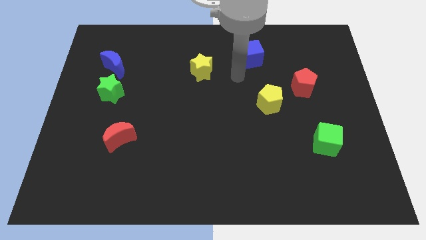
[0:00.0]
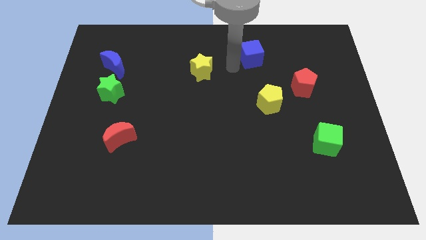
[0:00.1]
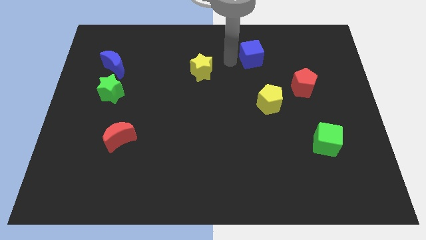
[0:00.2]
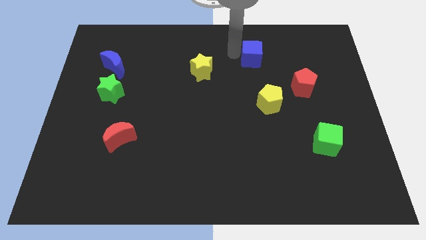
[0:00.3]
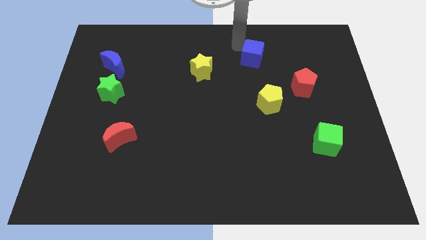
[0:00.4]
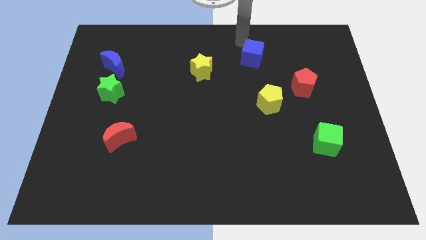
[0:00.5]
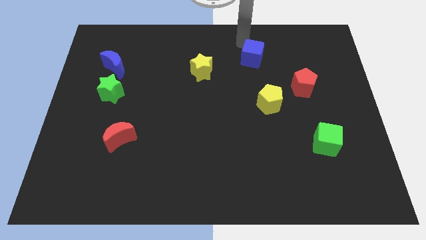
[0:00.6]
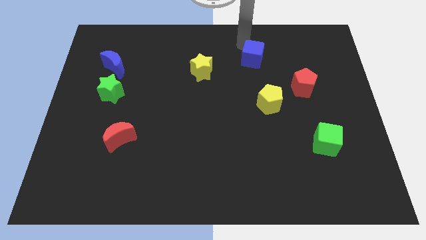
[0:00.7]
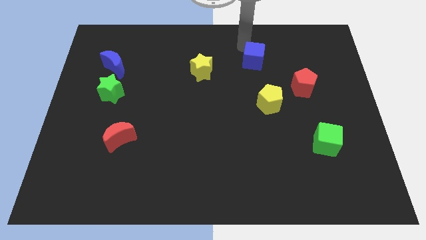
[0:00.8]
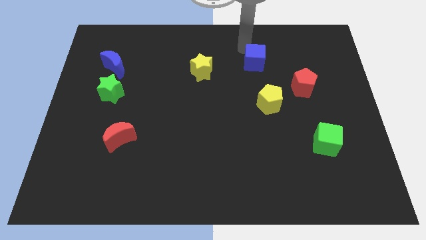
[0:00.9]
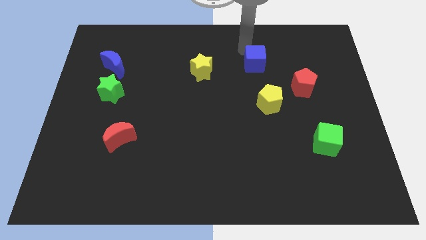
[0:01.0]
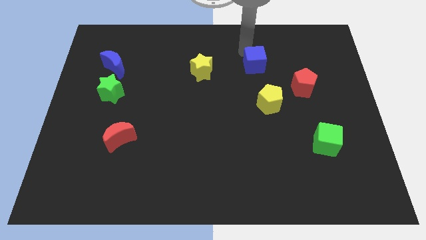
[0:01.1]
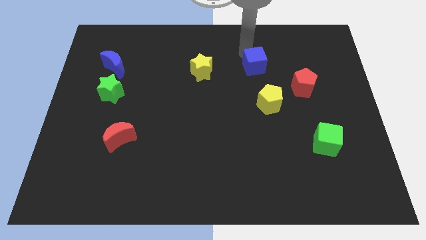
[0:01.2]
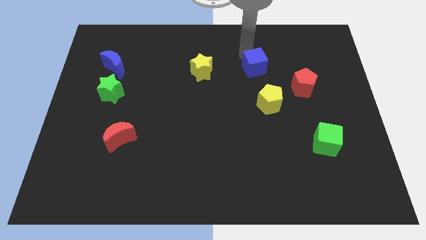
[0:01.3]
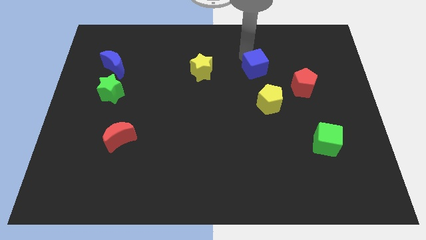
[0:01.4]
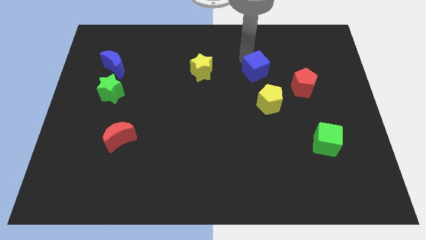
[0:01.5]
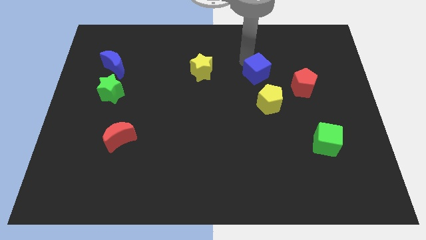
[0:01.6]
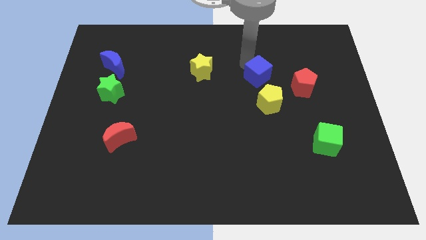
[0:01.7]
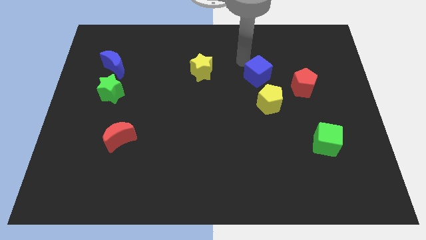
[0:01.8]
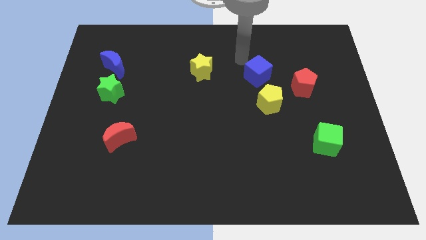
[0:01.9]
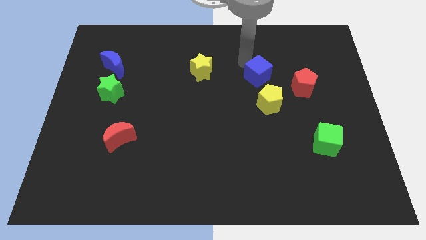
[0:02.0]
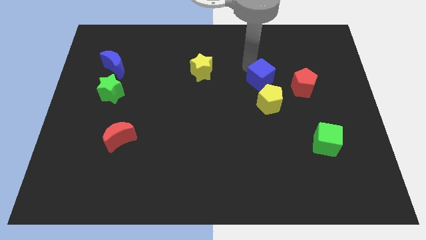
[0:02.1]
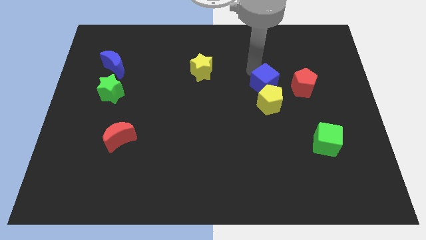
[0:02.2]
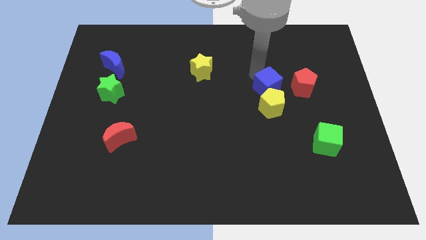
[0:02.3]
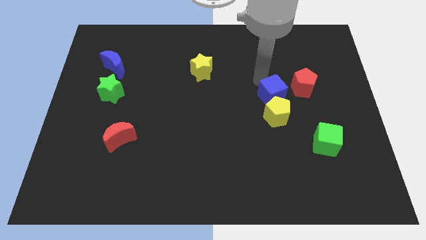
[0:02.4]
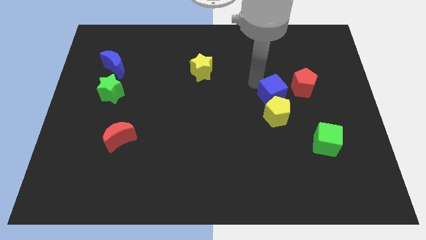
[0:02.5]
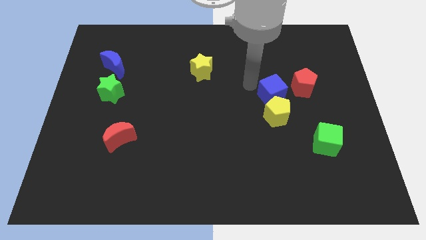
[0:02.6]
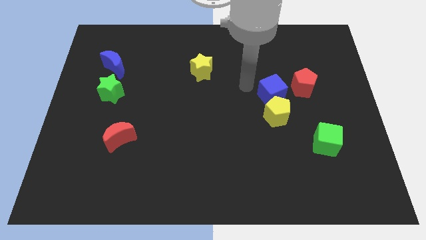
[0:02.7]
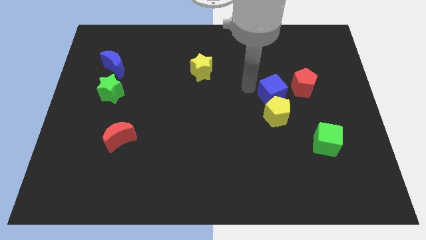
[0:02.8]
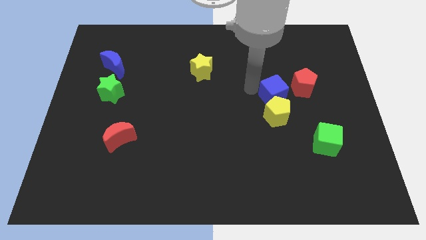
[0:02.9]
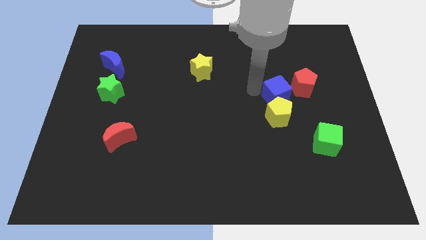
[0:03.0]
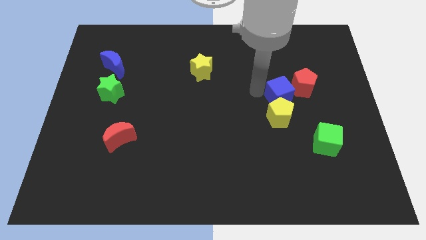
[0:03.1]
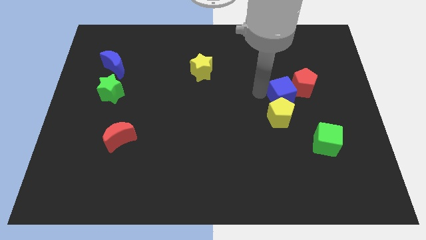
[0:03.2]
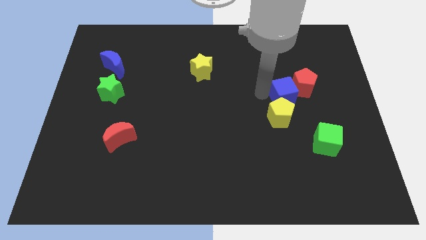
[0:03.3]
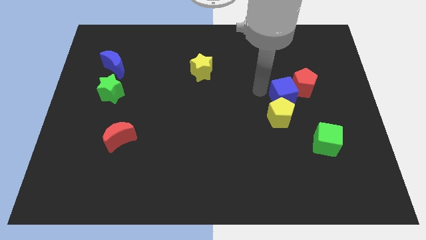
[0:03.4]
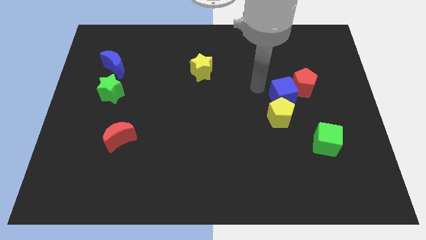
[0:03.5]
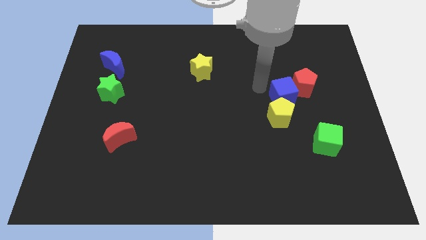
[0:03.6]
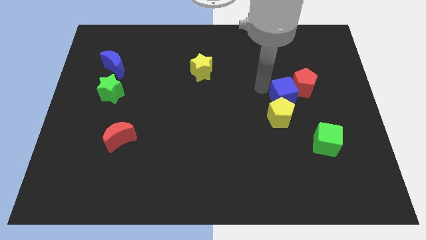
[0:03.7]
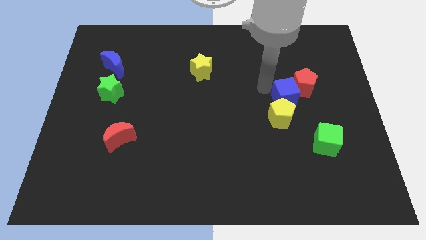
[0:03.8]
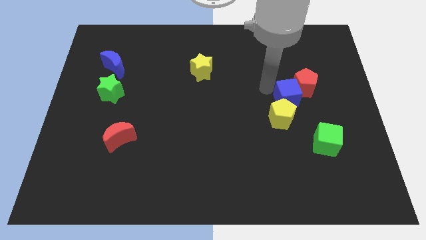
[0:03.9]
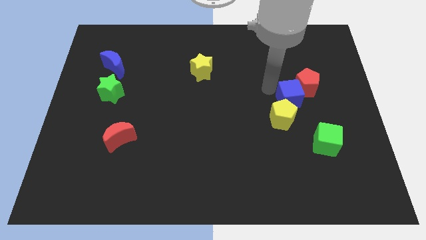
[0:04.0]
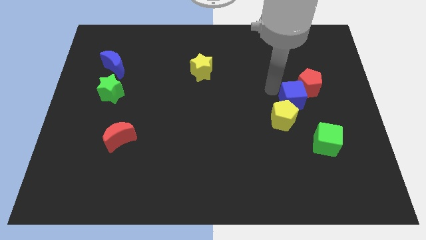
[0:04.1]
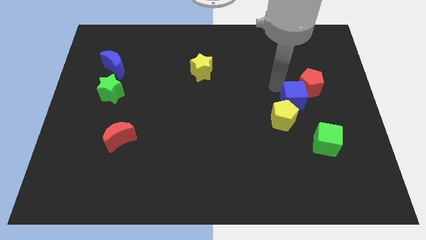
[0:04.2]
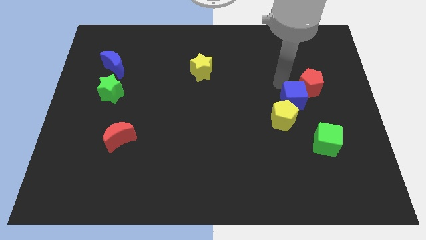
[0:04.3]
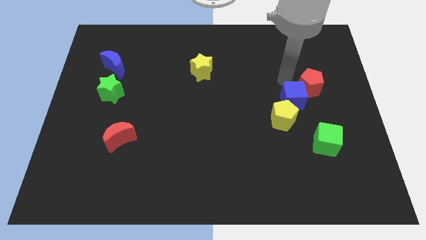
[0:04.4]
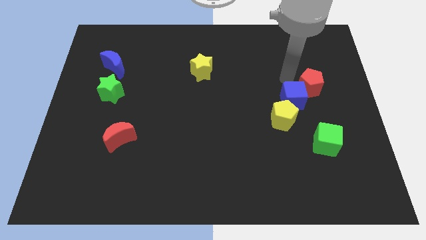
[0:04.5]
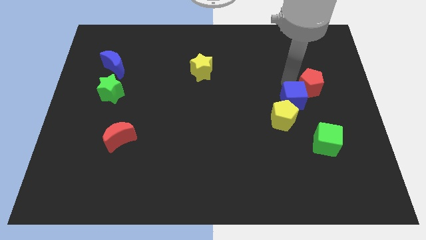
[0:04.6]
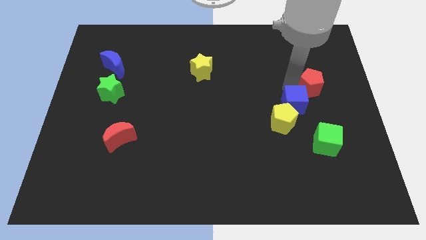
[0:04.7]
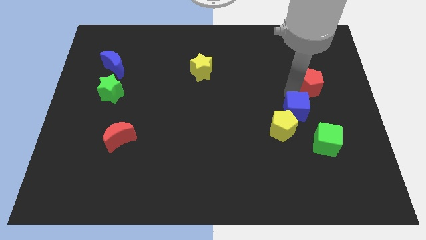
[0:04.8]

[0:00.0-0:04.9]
move the blue cube diagonally up and to the left of the green cube

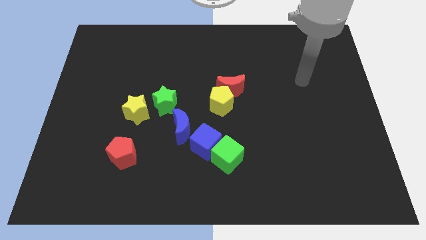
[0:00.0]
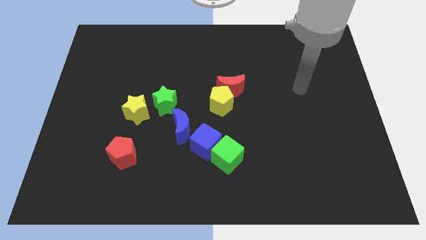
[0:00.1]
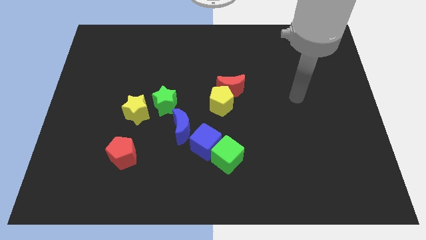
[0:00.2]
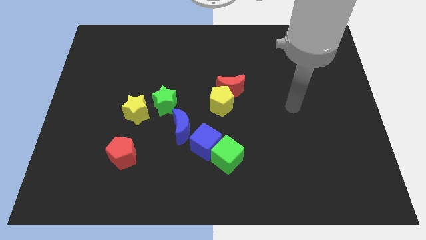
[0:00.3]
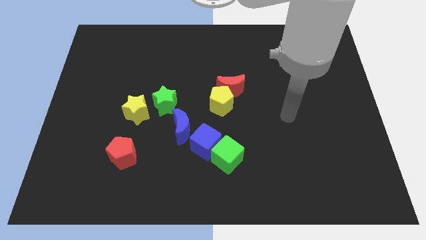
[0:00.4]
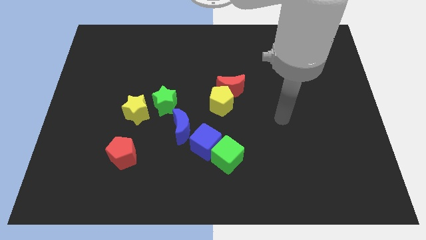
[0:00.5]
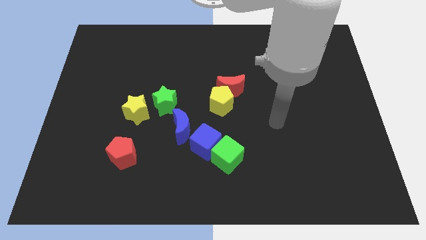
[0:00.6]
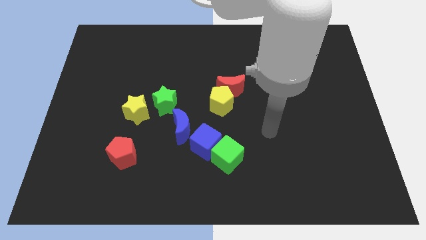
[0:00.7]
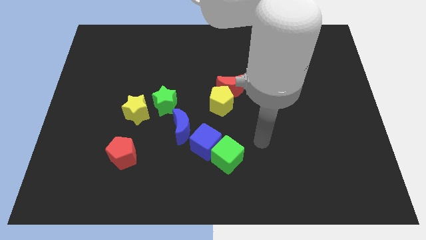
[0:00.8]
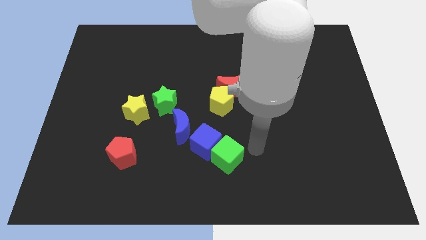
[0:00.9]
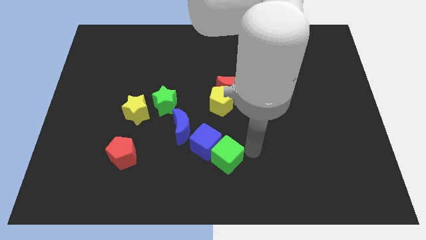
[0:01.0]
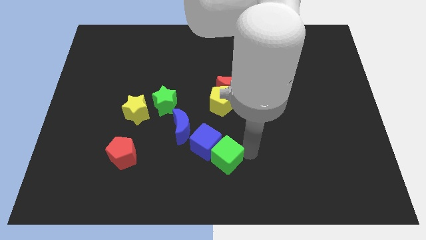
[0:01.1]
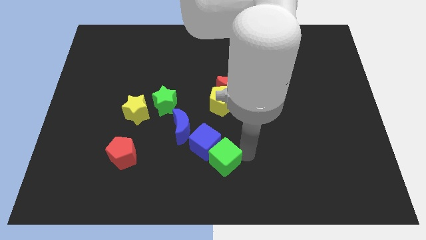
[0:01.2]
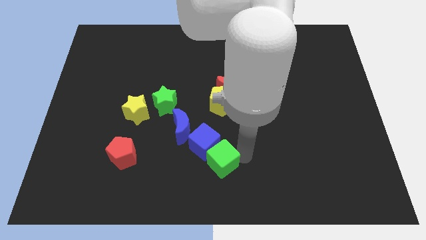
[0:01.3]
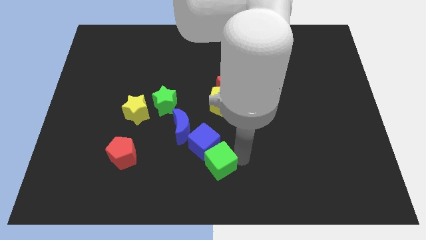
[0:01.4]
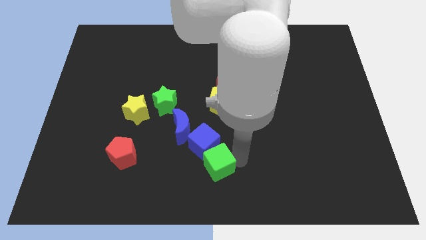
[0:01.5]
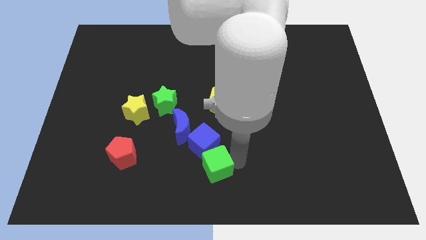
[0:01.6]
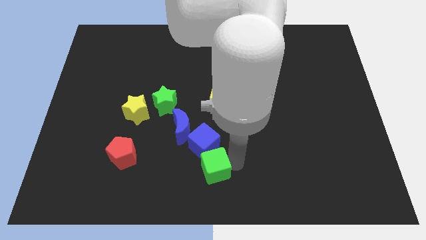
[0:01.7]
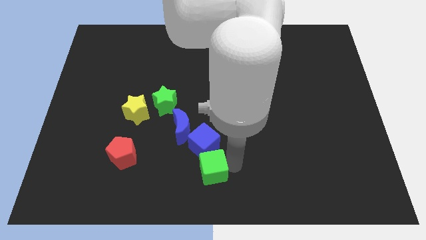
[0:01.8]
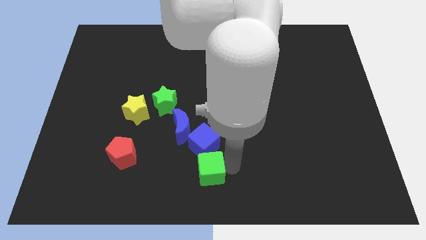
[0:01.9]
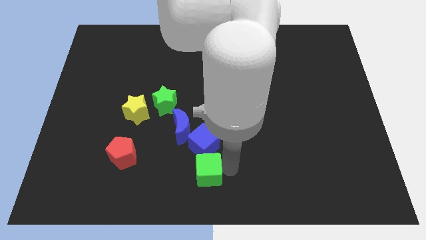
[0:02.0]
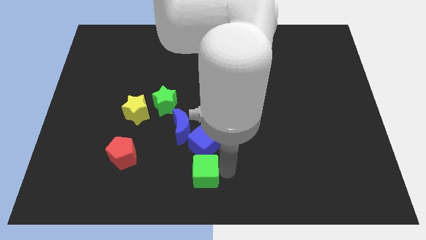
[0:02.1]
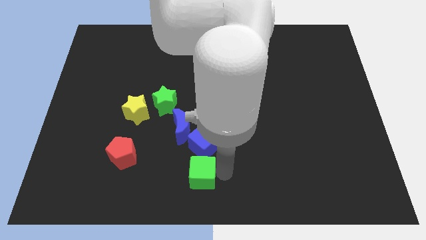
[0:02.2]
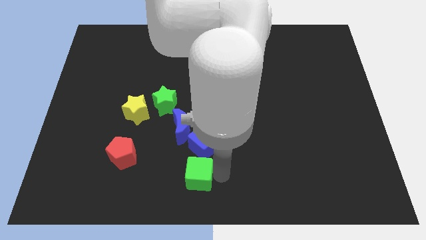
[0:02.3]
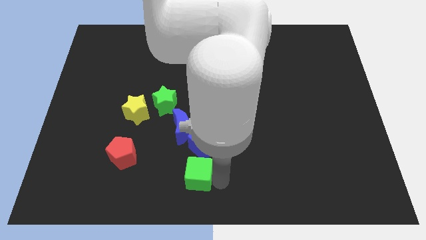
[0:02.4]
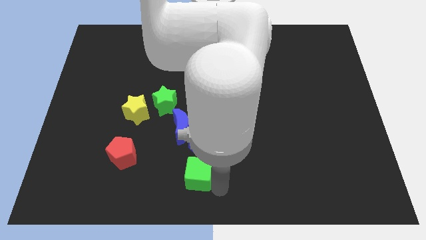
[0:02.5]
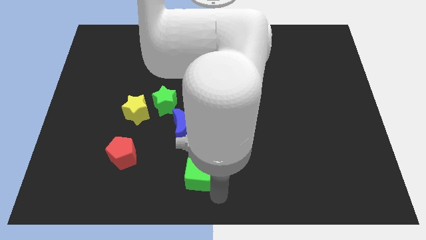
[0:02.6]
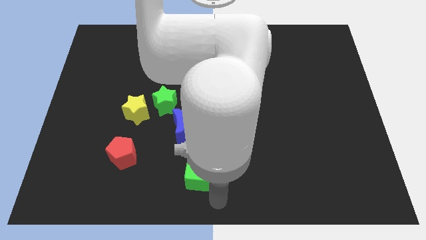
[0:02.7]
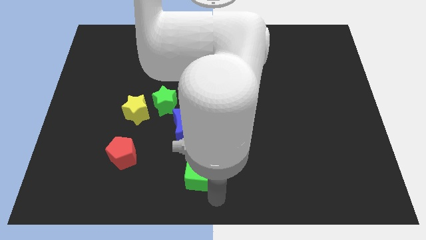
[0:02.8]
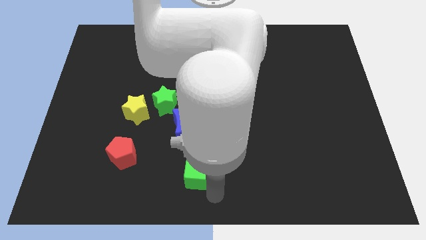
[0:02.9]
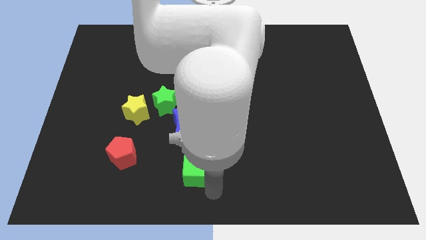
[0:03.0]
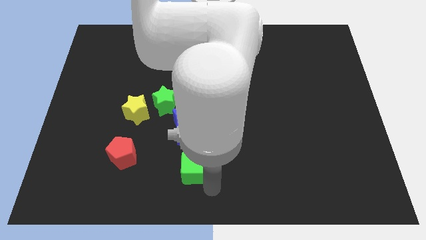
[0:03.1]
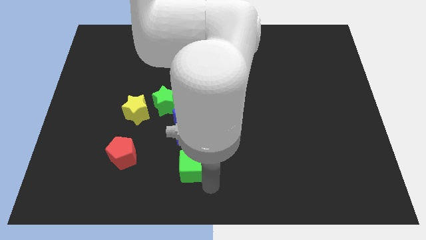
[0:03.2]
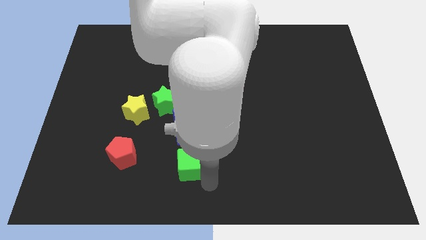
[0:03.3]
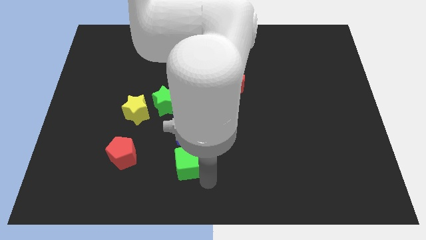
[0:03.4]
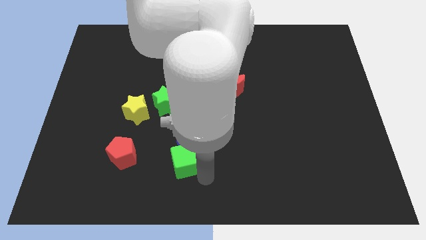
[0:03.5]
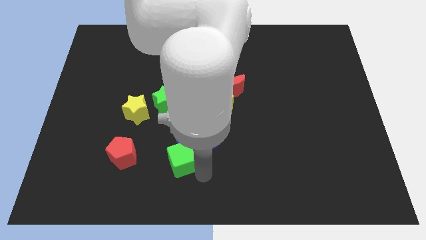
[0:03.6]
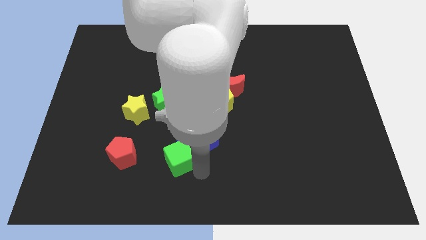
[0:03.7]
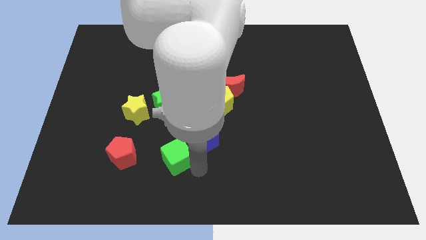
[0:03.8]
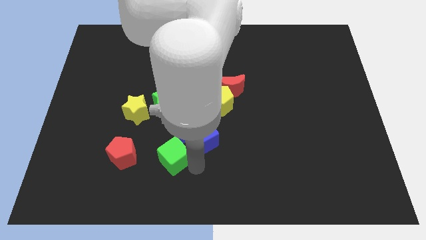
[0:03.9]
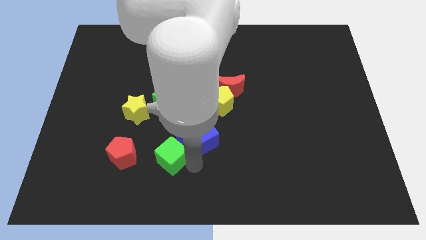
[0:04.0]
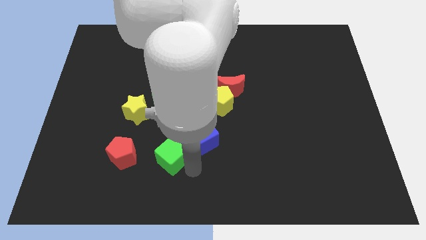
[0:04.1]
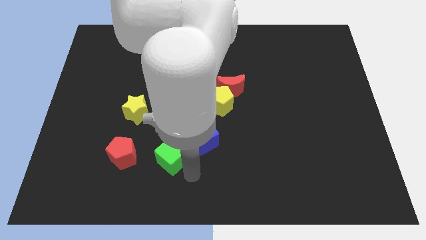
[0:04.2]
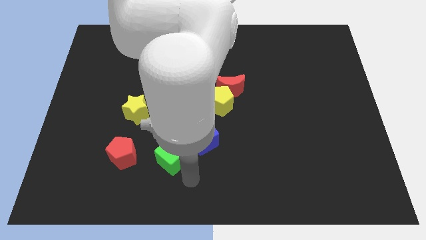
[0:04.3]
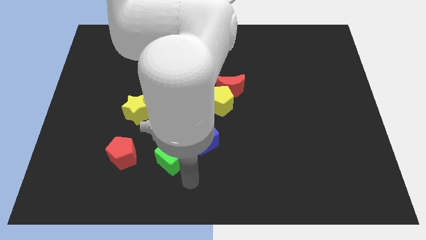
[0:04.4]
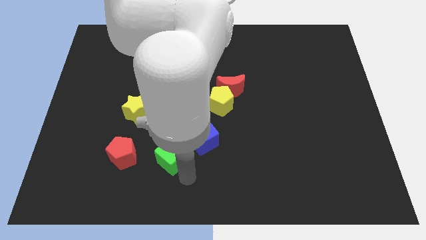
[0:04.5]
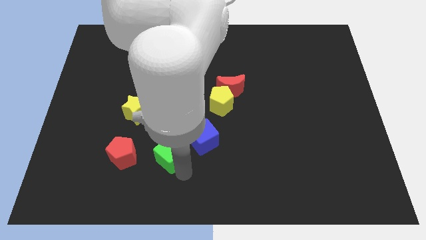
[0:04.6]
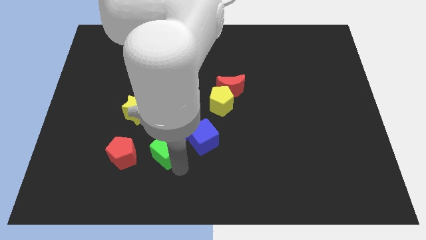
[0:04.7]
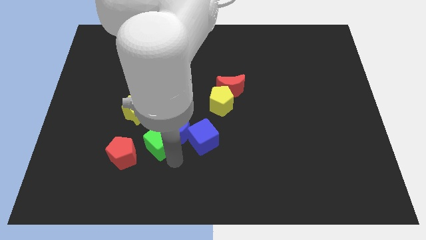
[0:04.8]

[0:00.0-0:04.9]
slide the green cube to the left side of the blue moon
